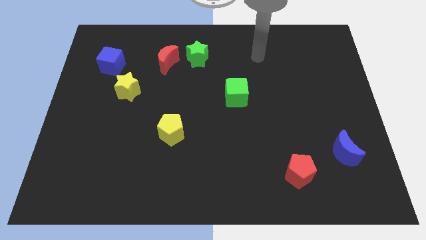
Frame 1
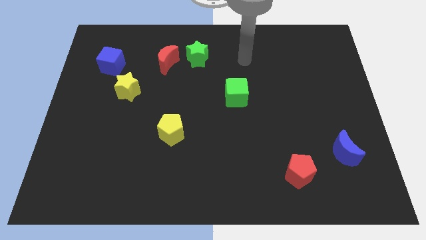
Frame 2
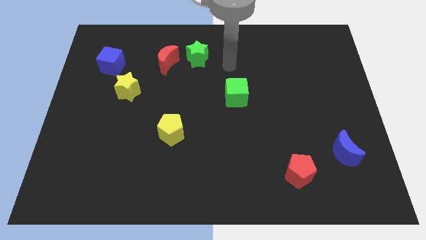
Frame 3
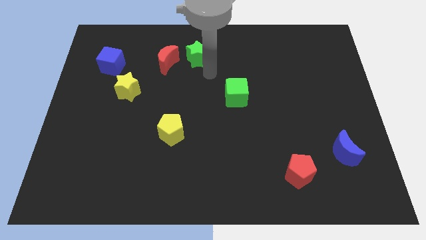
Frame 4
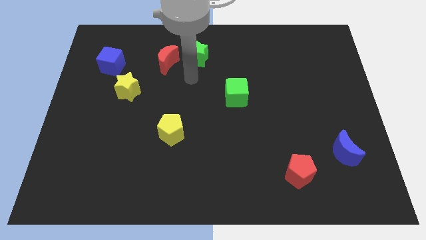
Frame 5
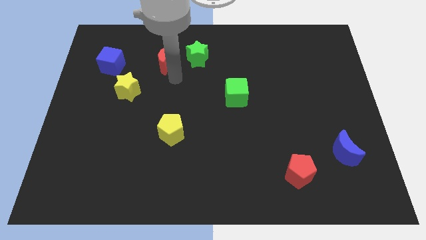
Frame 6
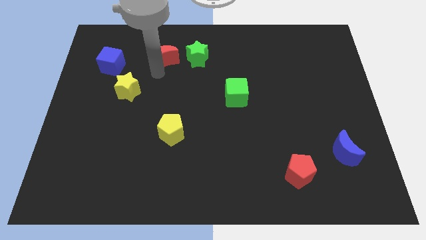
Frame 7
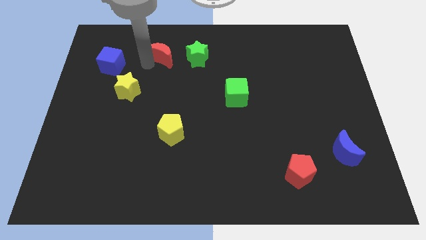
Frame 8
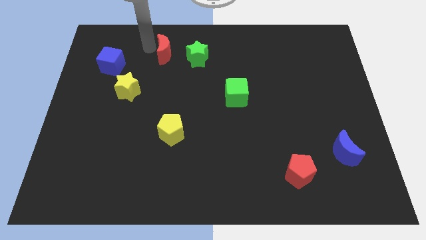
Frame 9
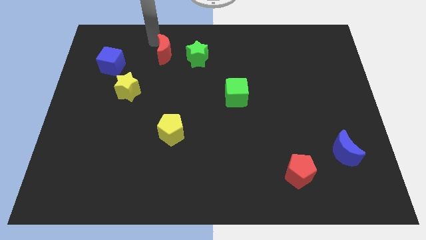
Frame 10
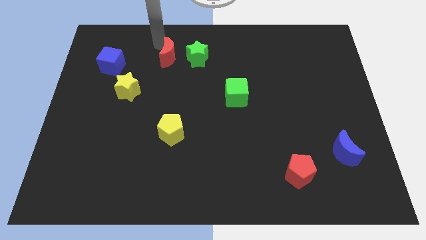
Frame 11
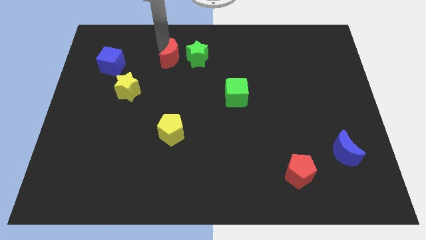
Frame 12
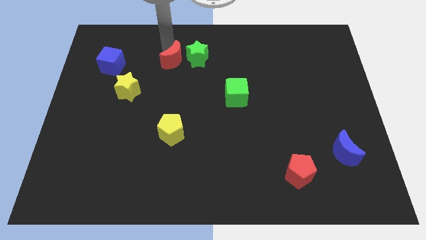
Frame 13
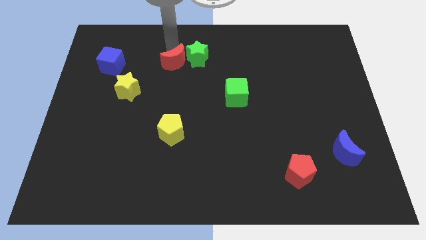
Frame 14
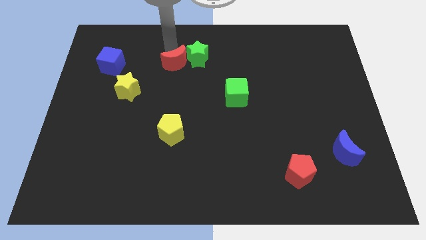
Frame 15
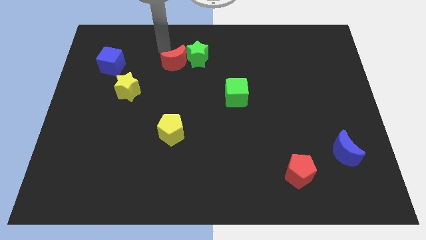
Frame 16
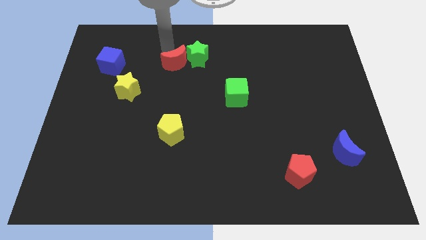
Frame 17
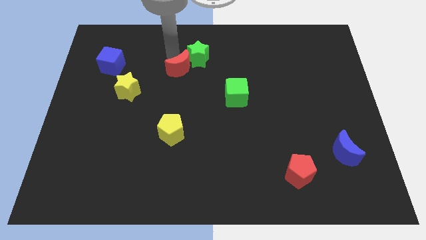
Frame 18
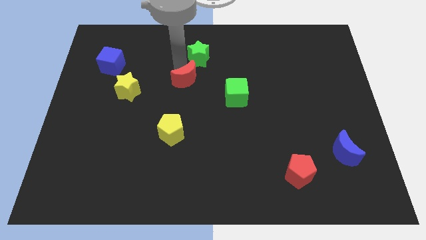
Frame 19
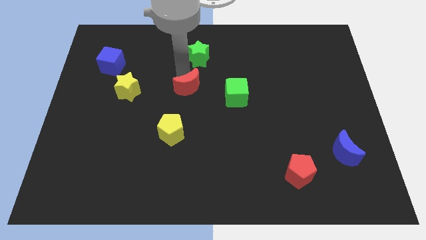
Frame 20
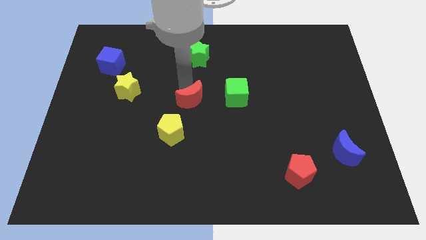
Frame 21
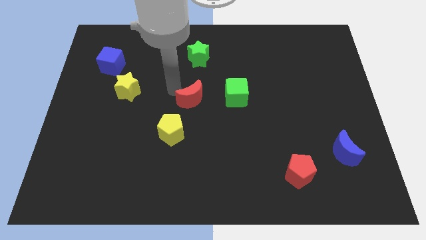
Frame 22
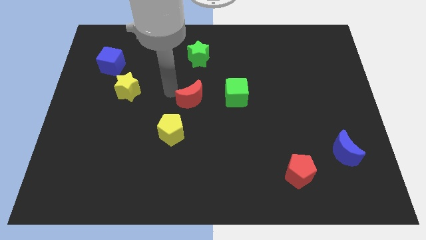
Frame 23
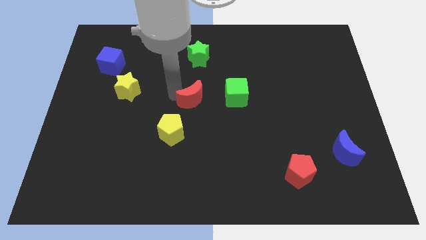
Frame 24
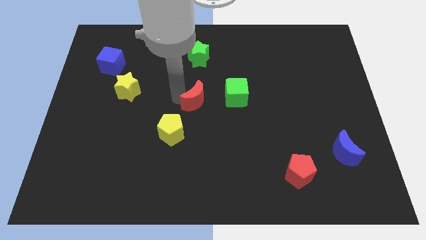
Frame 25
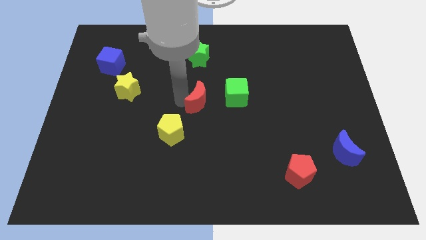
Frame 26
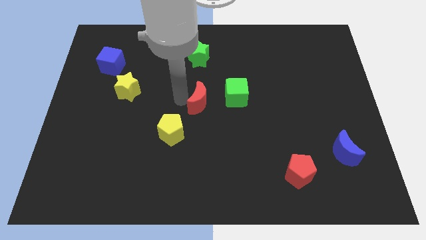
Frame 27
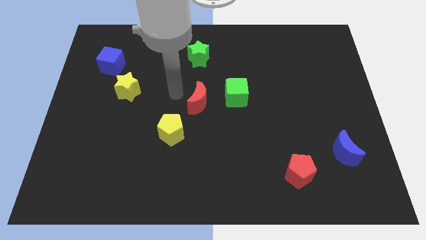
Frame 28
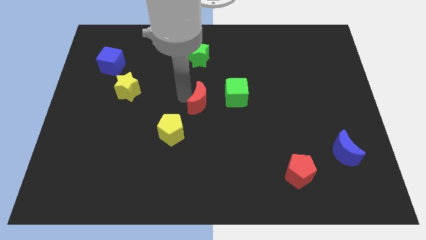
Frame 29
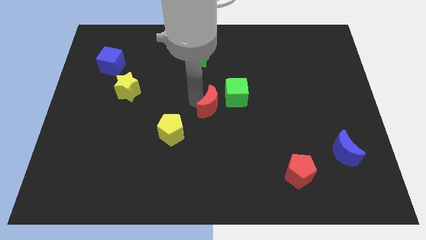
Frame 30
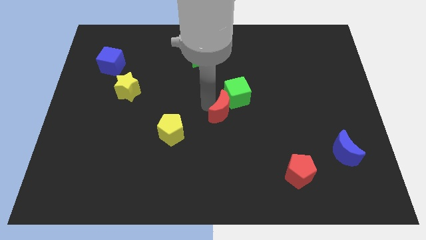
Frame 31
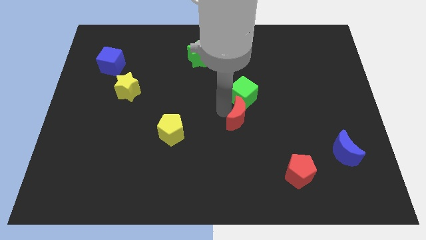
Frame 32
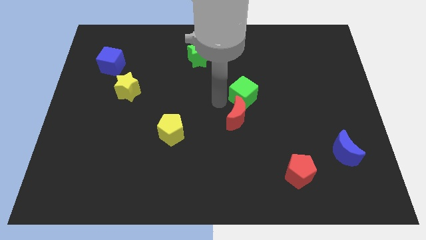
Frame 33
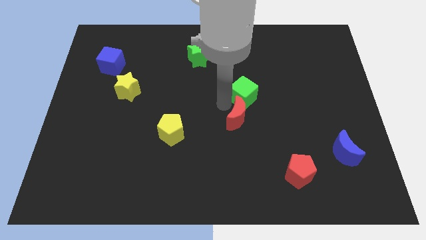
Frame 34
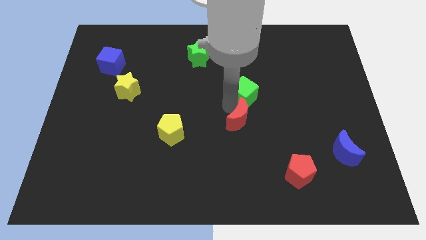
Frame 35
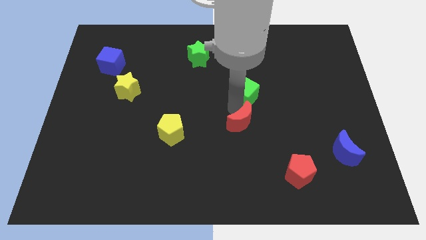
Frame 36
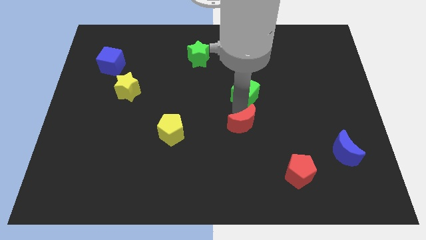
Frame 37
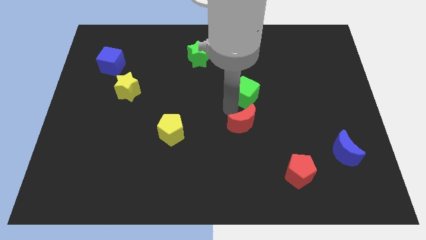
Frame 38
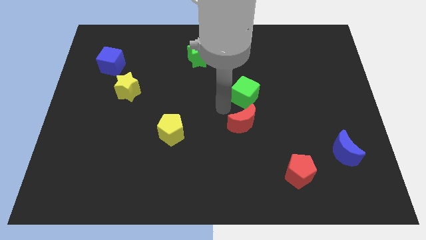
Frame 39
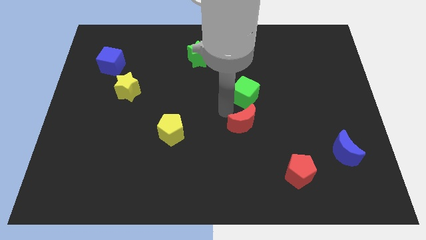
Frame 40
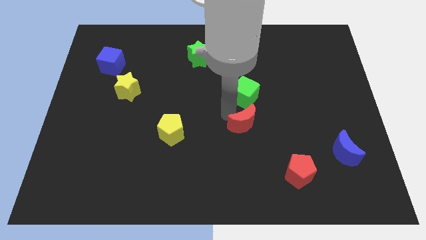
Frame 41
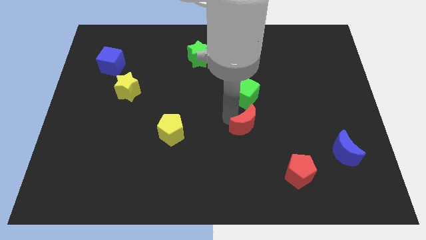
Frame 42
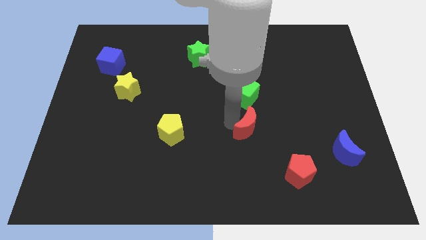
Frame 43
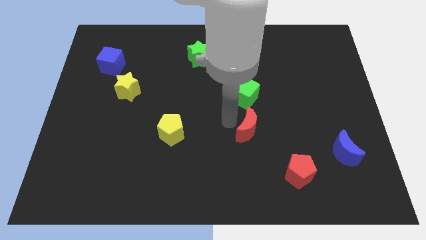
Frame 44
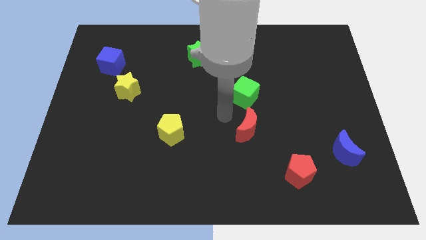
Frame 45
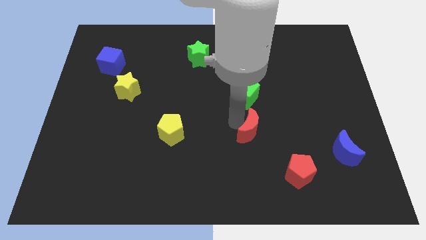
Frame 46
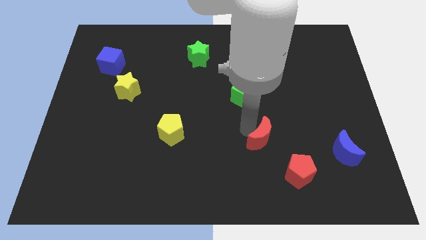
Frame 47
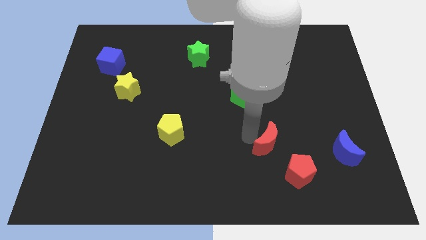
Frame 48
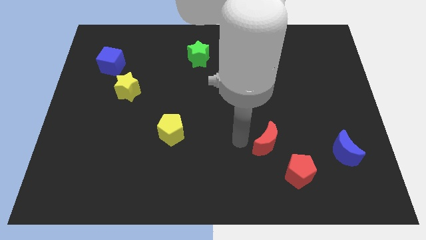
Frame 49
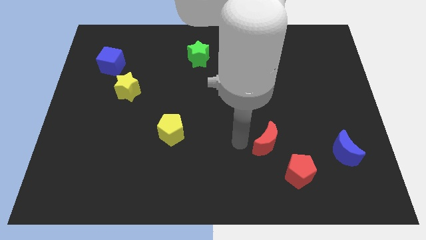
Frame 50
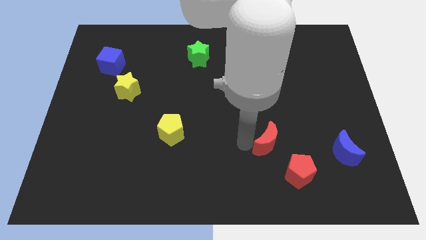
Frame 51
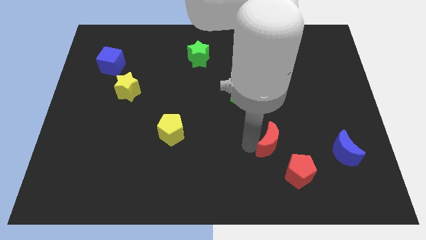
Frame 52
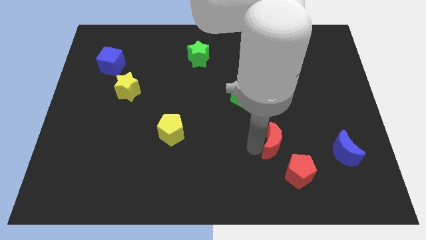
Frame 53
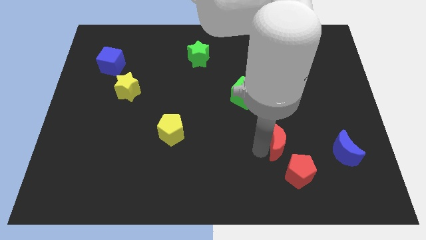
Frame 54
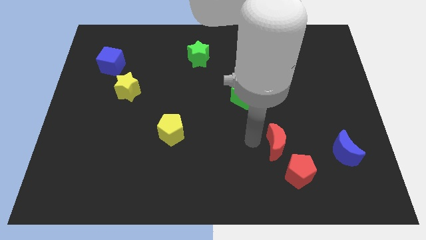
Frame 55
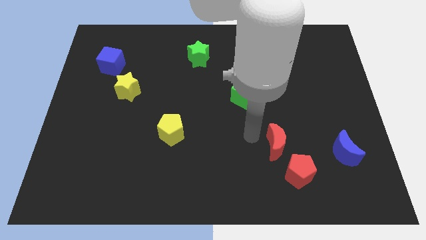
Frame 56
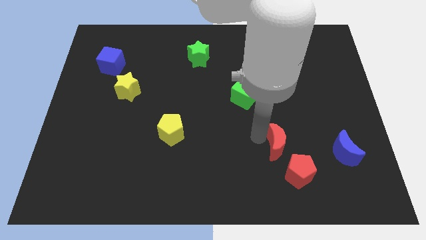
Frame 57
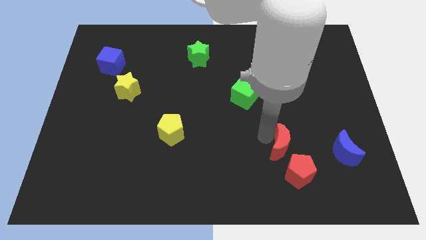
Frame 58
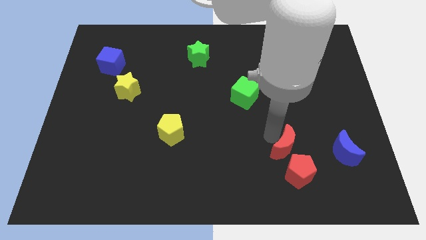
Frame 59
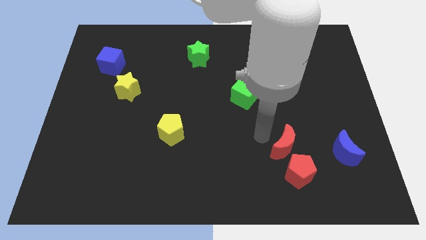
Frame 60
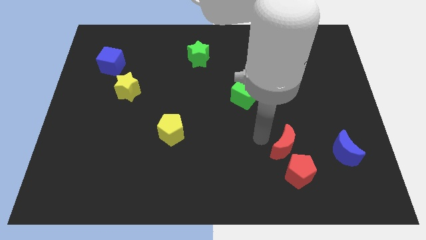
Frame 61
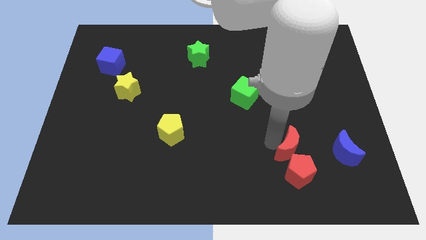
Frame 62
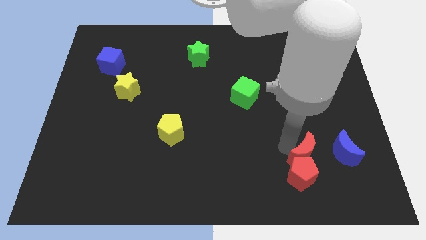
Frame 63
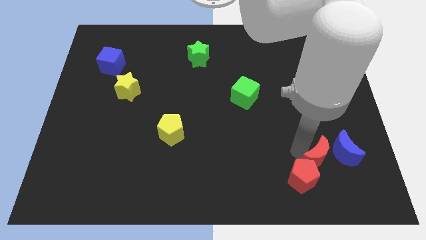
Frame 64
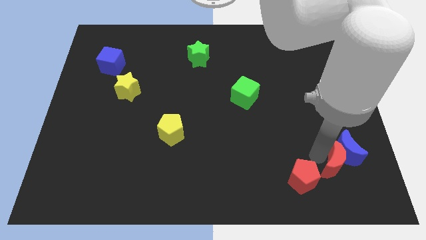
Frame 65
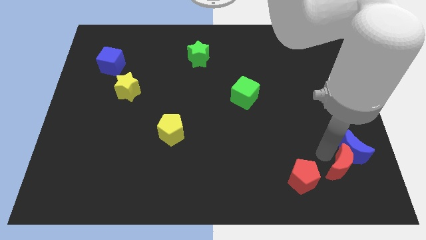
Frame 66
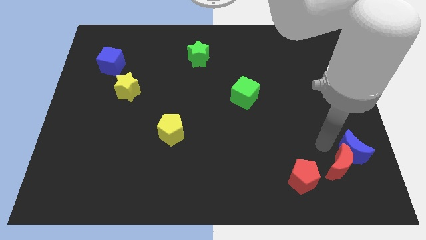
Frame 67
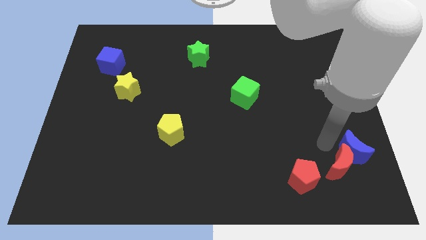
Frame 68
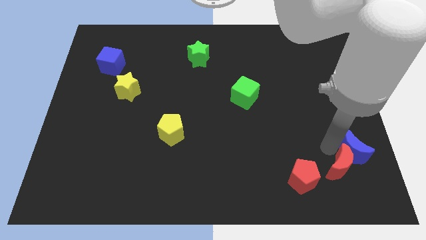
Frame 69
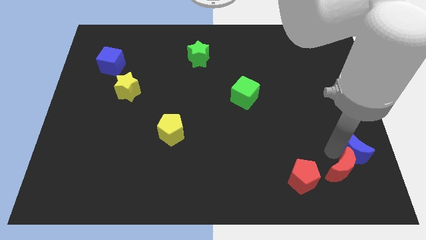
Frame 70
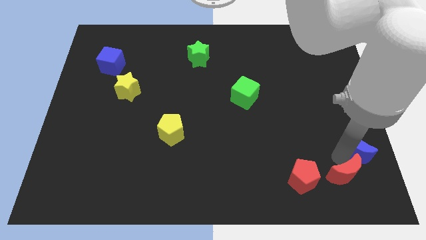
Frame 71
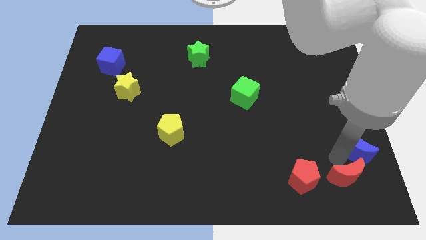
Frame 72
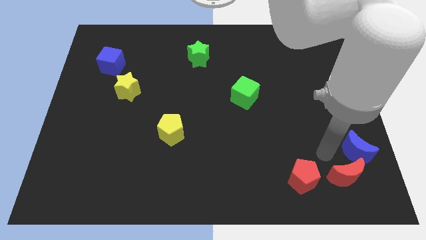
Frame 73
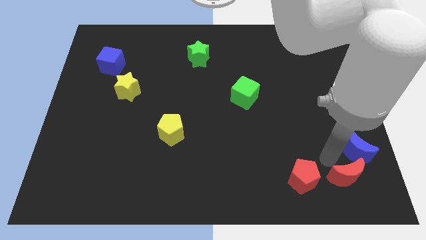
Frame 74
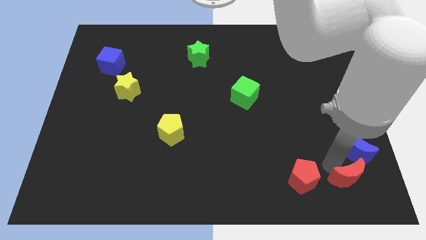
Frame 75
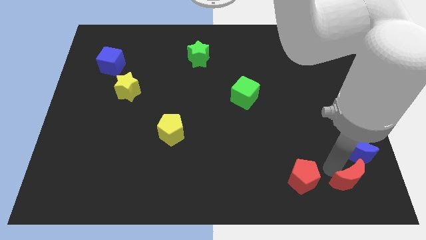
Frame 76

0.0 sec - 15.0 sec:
push the red moon to the lower right corner

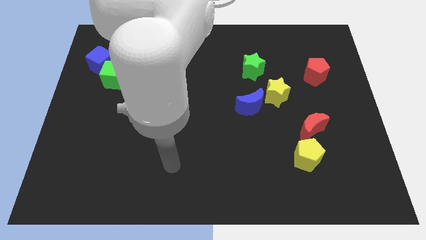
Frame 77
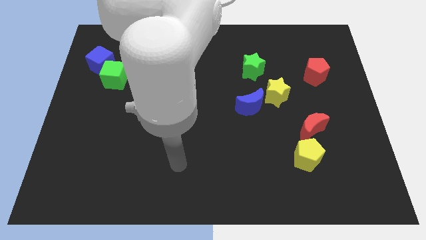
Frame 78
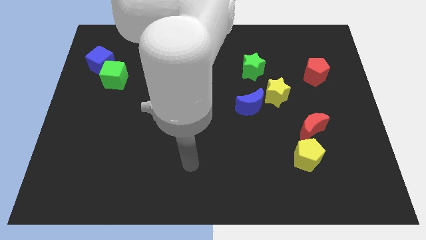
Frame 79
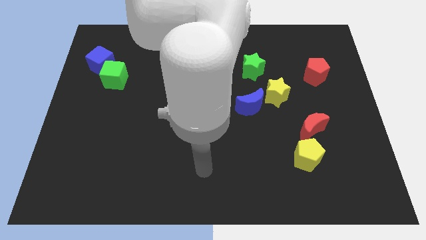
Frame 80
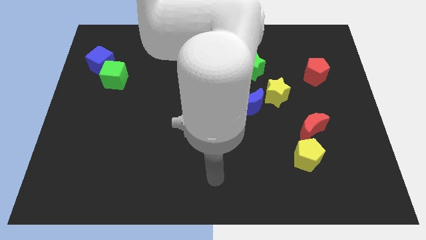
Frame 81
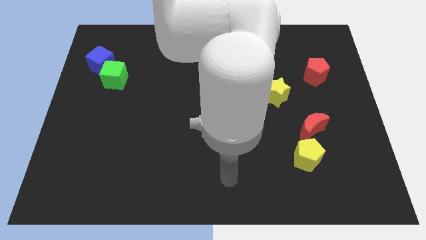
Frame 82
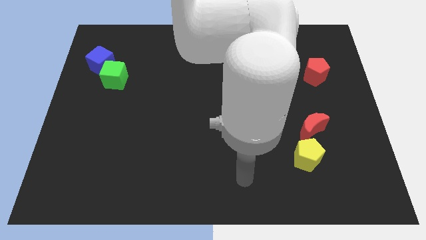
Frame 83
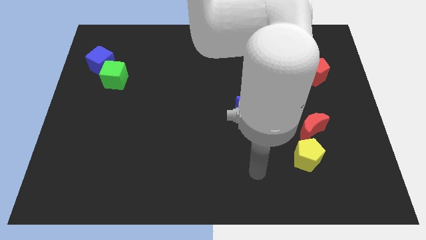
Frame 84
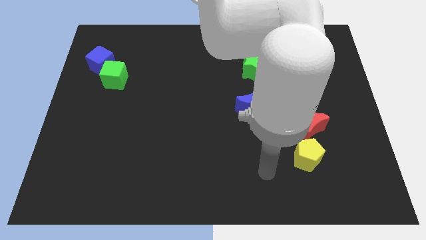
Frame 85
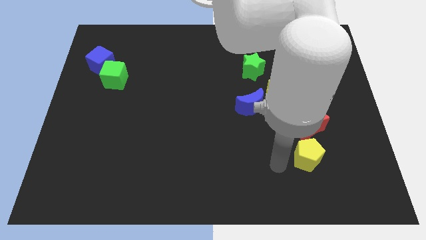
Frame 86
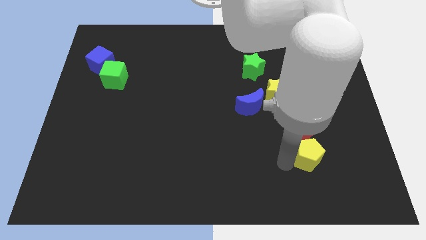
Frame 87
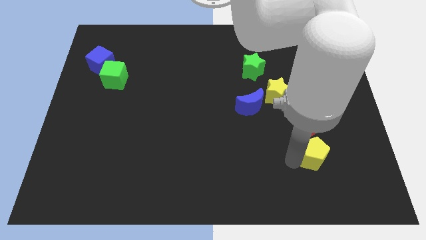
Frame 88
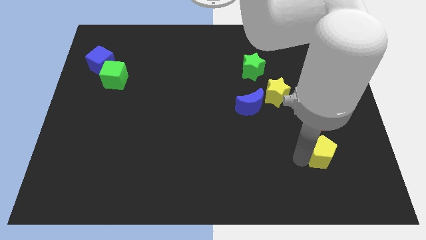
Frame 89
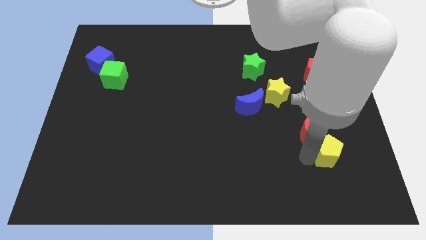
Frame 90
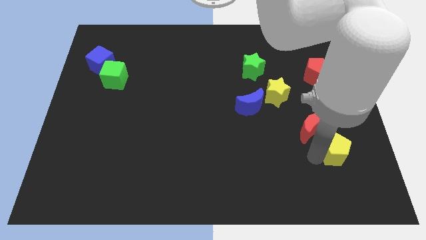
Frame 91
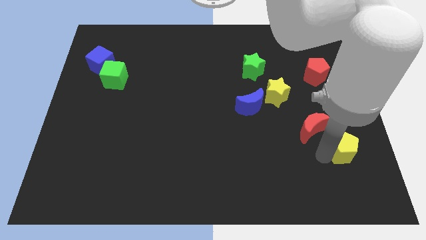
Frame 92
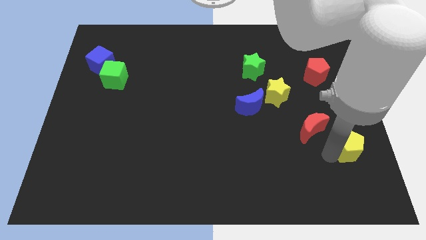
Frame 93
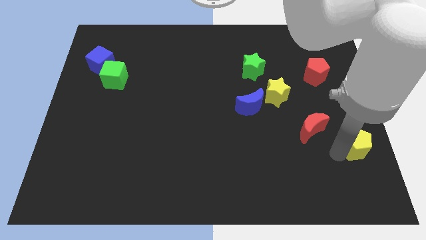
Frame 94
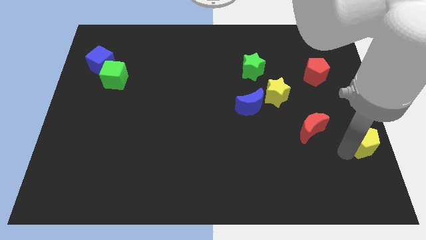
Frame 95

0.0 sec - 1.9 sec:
move the yellow pentagon to the right side
